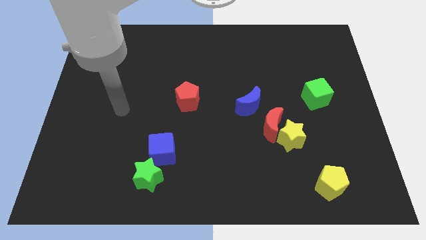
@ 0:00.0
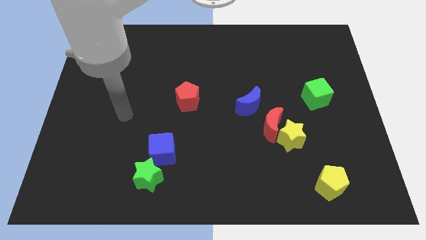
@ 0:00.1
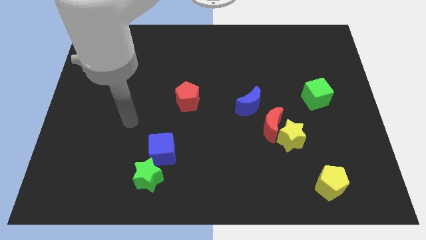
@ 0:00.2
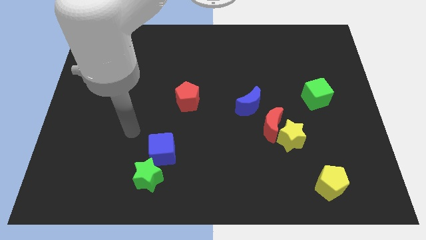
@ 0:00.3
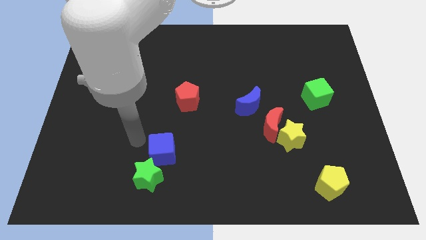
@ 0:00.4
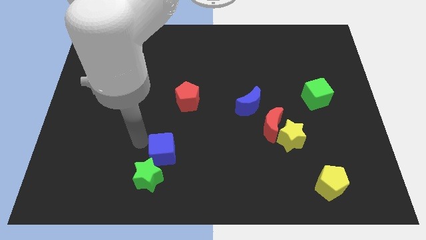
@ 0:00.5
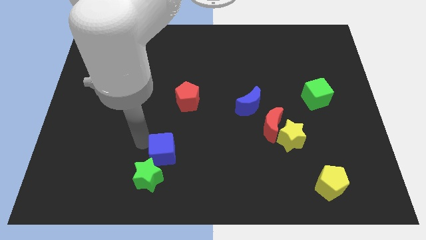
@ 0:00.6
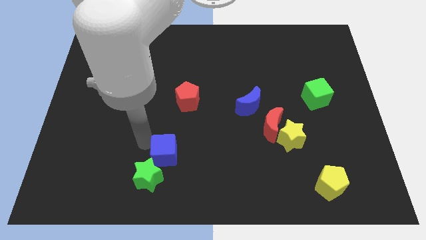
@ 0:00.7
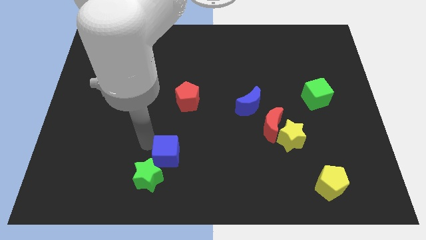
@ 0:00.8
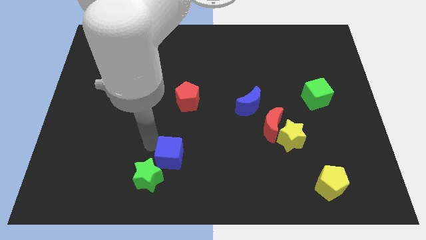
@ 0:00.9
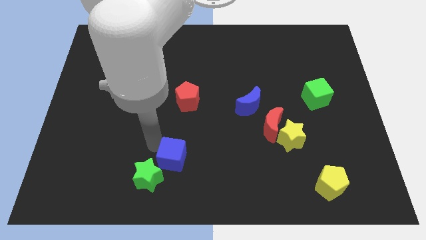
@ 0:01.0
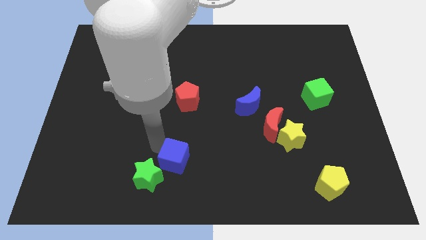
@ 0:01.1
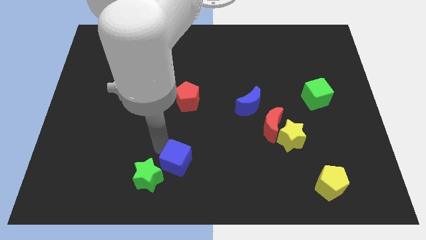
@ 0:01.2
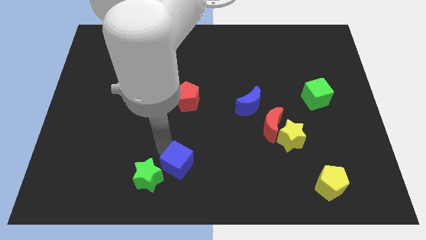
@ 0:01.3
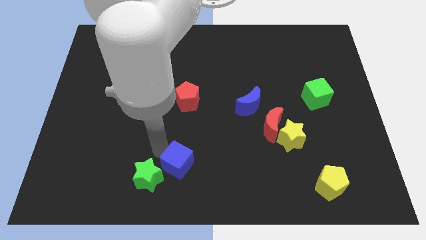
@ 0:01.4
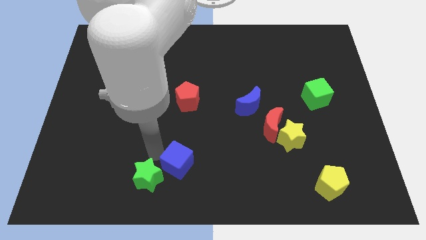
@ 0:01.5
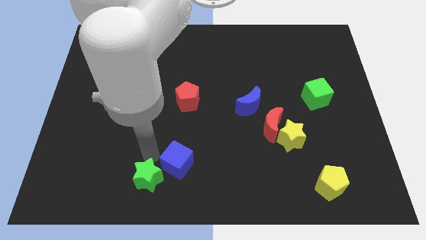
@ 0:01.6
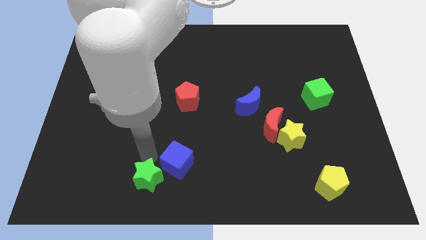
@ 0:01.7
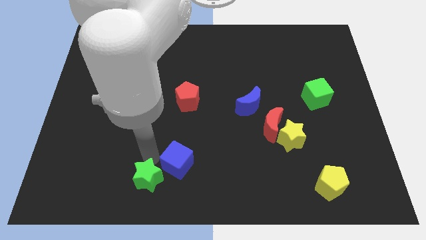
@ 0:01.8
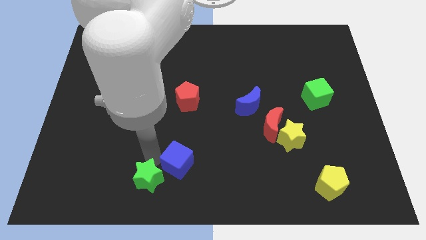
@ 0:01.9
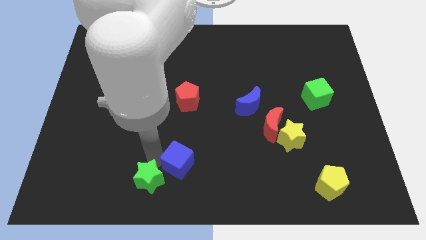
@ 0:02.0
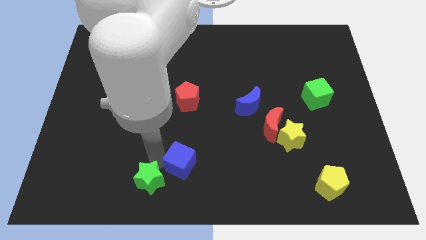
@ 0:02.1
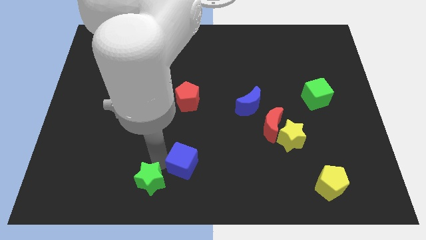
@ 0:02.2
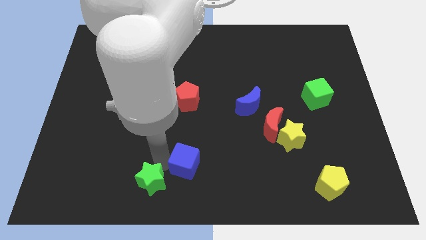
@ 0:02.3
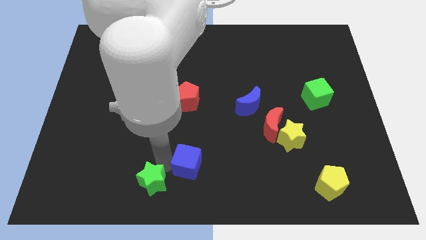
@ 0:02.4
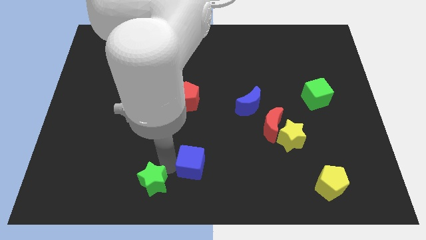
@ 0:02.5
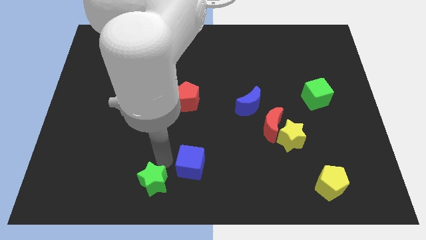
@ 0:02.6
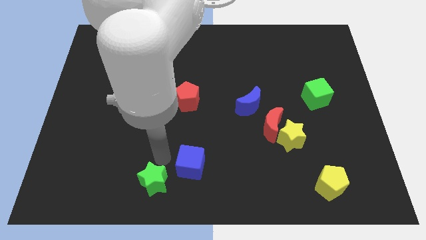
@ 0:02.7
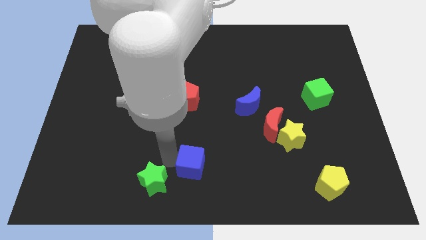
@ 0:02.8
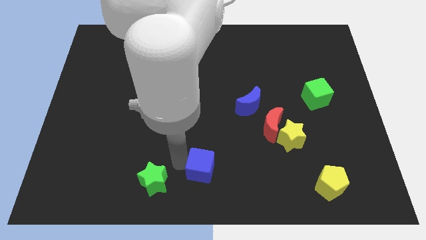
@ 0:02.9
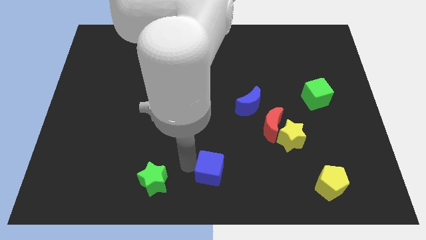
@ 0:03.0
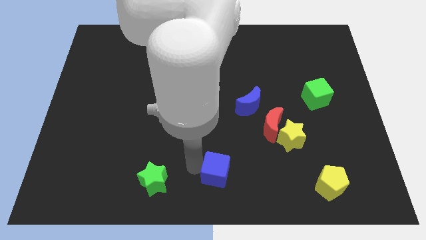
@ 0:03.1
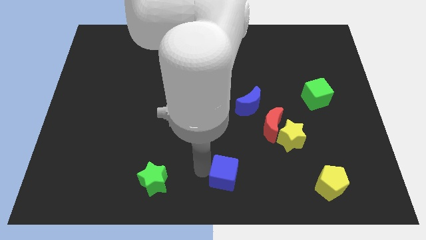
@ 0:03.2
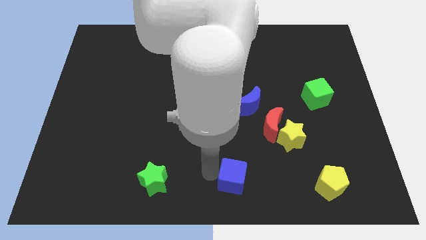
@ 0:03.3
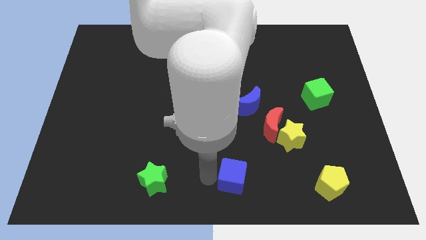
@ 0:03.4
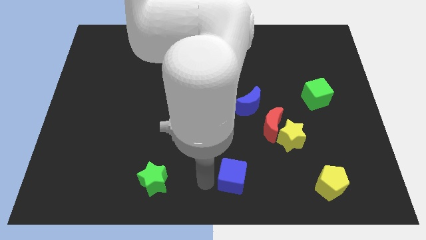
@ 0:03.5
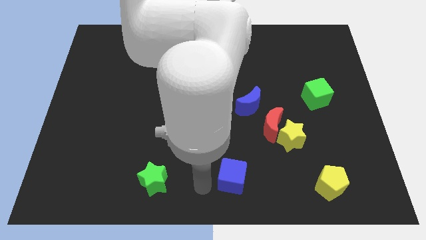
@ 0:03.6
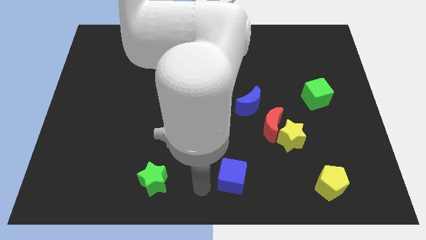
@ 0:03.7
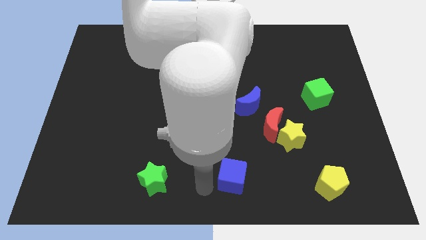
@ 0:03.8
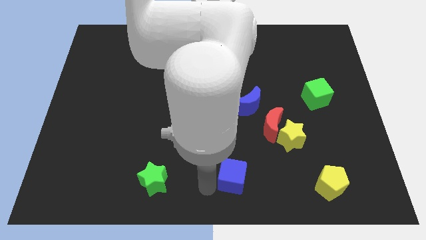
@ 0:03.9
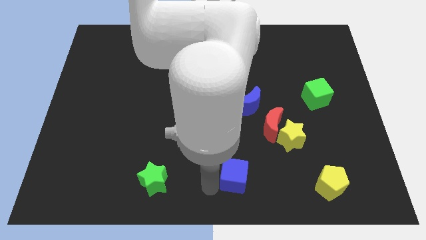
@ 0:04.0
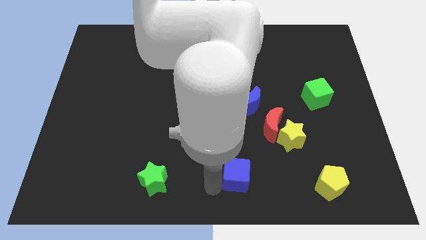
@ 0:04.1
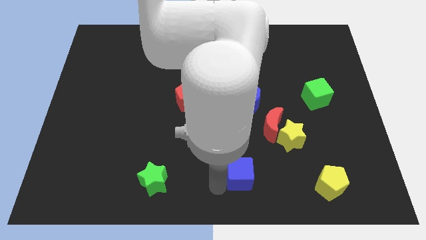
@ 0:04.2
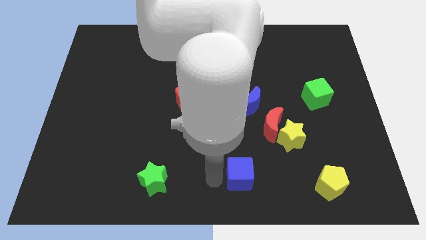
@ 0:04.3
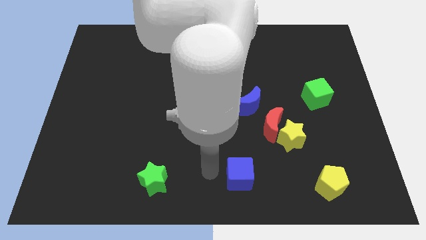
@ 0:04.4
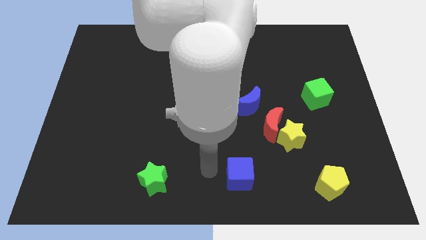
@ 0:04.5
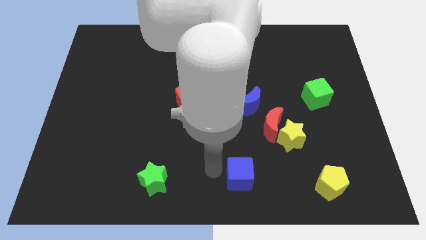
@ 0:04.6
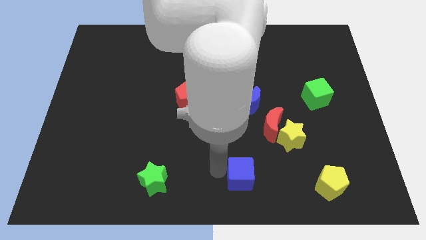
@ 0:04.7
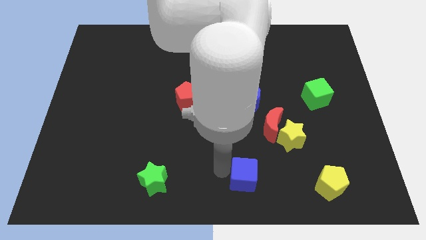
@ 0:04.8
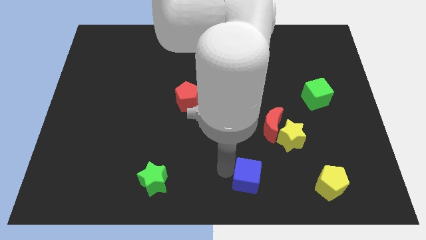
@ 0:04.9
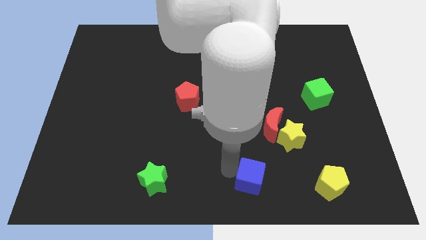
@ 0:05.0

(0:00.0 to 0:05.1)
put the blue cube to the left of the yellow pentagon

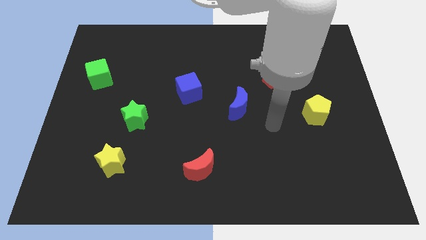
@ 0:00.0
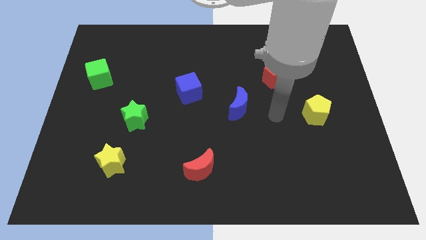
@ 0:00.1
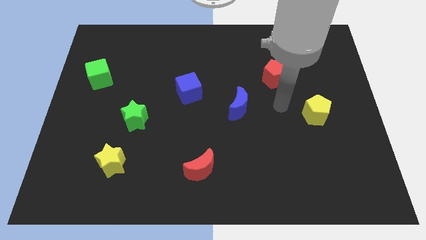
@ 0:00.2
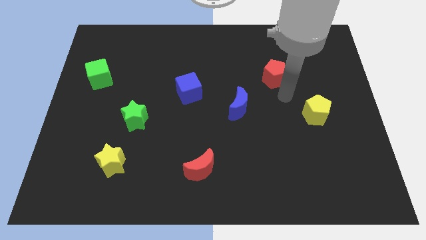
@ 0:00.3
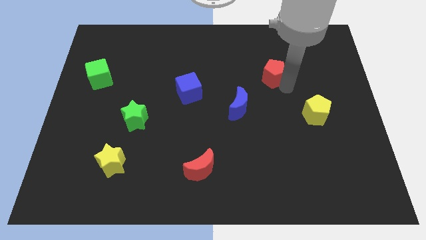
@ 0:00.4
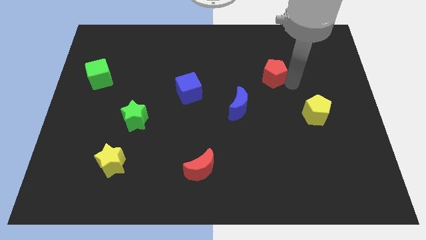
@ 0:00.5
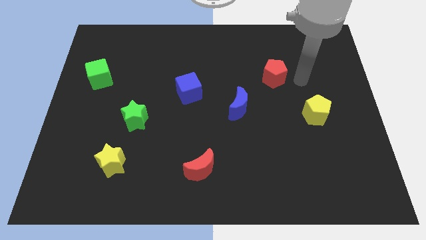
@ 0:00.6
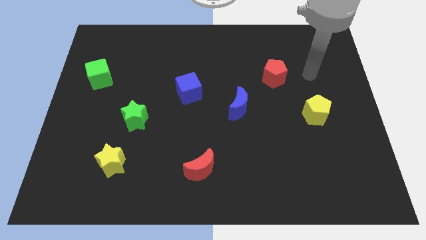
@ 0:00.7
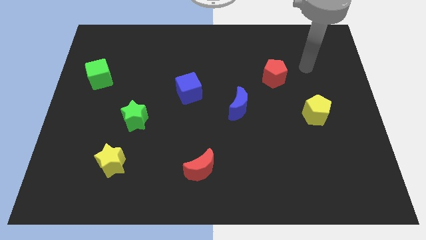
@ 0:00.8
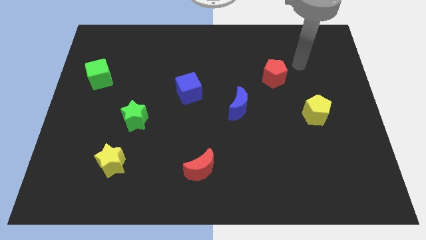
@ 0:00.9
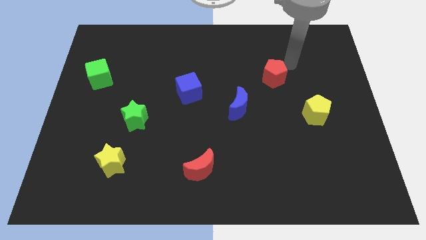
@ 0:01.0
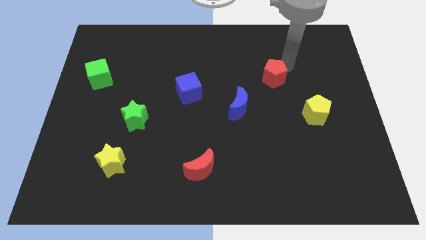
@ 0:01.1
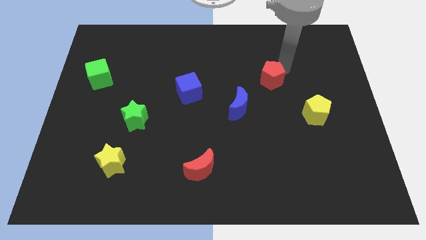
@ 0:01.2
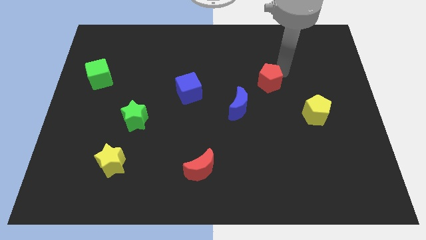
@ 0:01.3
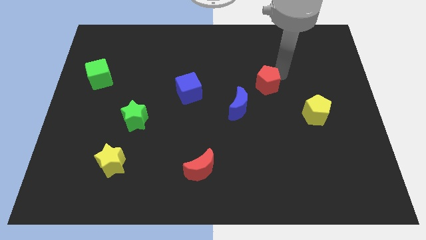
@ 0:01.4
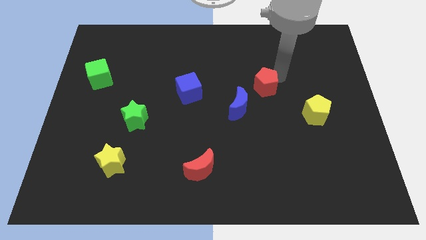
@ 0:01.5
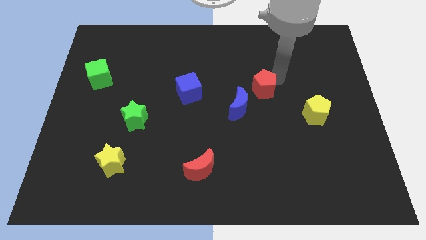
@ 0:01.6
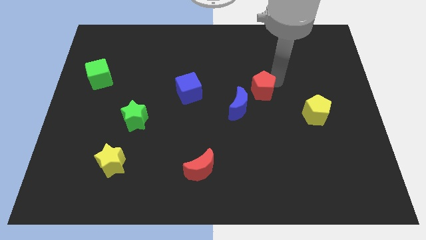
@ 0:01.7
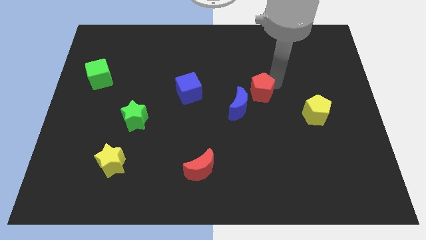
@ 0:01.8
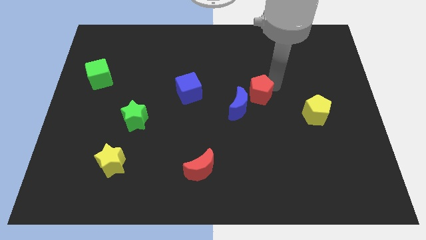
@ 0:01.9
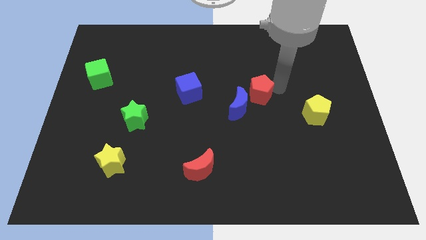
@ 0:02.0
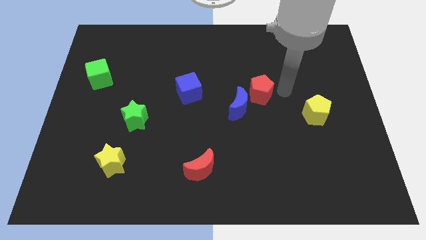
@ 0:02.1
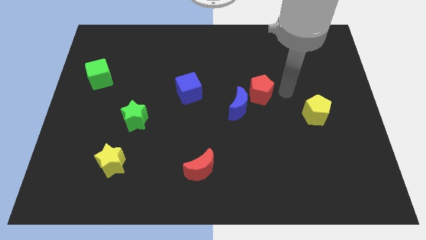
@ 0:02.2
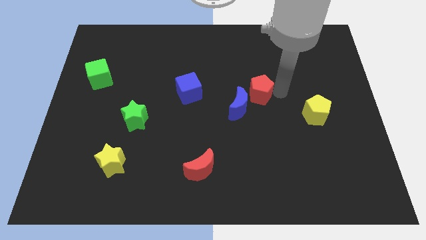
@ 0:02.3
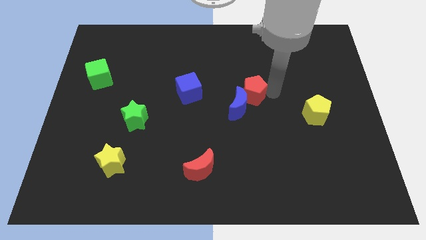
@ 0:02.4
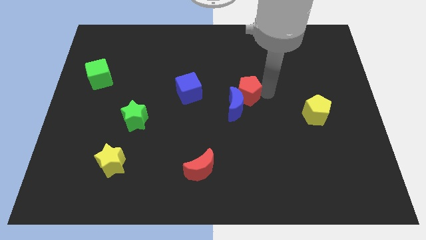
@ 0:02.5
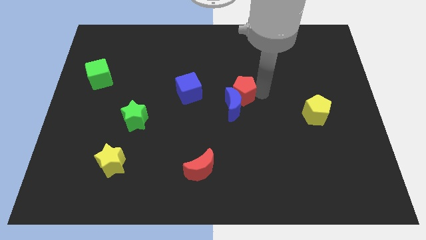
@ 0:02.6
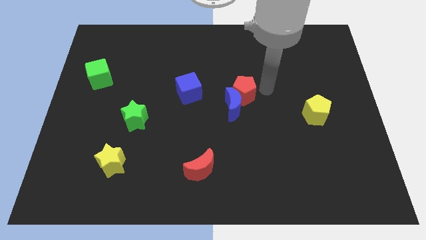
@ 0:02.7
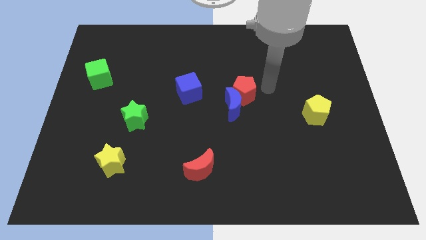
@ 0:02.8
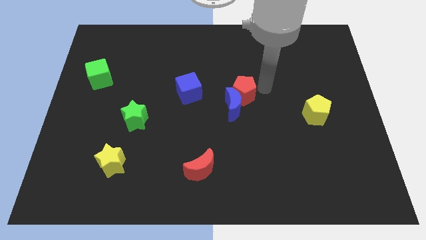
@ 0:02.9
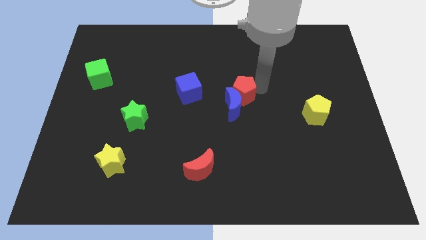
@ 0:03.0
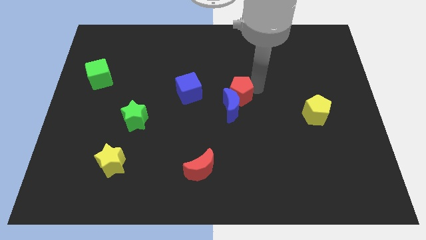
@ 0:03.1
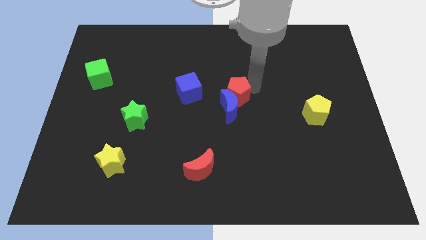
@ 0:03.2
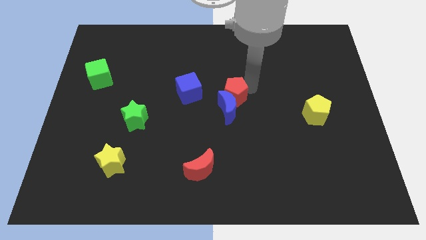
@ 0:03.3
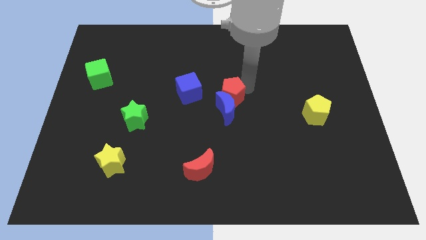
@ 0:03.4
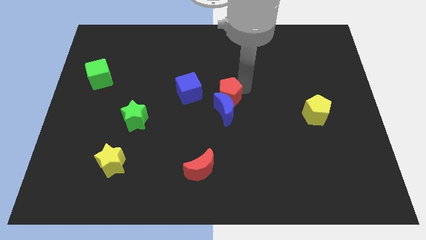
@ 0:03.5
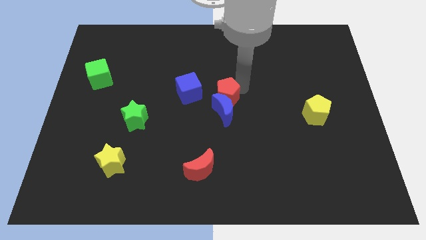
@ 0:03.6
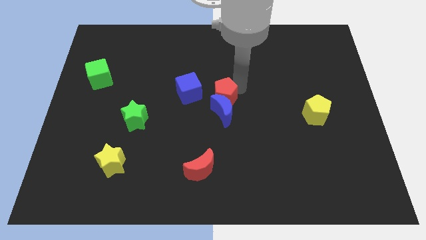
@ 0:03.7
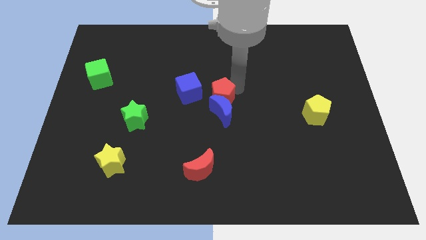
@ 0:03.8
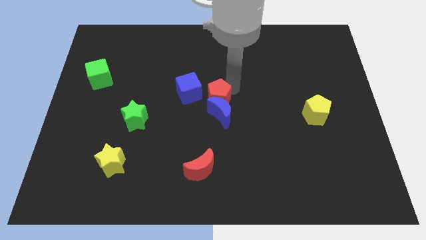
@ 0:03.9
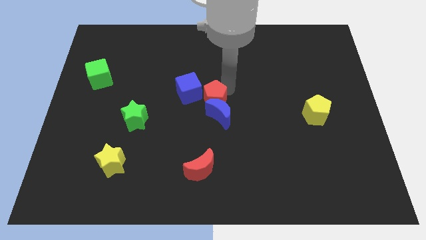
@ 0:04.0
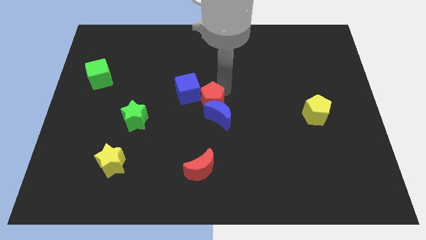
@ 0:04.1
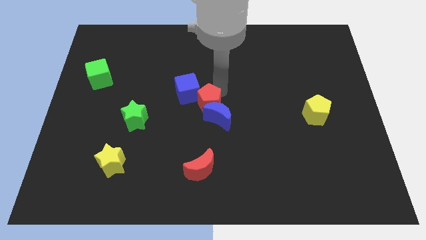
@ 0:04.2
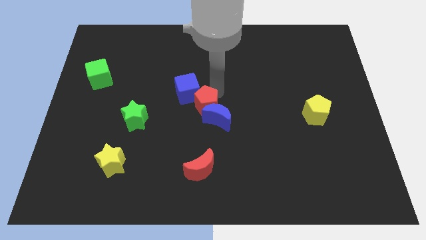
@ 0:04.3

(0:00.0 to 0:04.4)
slide the red pentagon to the left side of the blue moon
